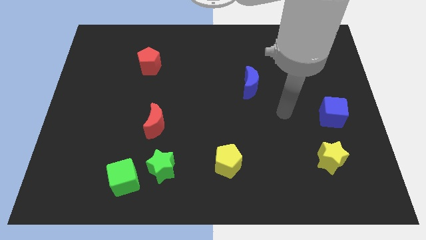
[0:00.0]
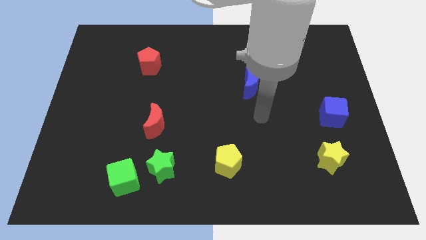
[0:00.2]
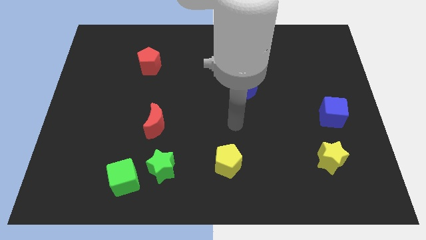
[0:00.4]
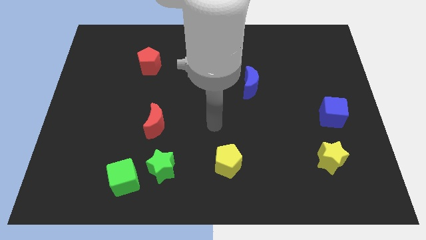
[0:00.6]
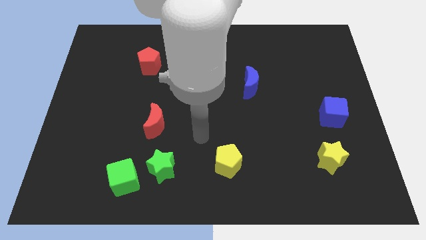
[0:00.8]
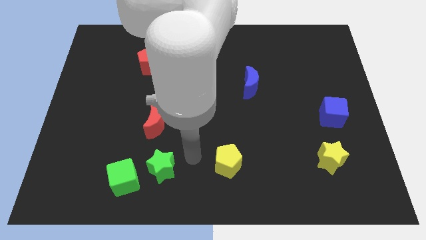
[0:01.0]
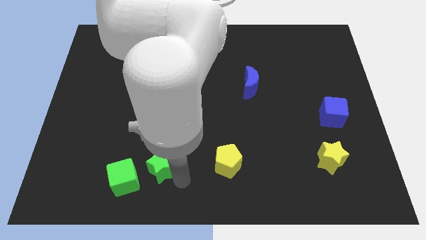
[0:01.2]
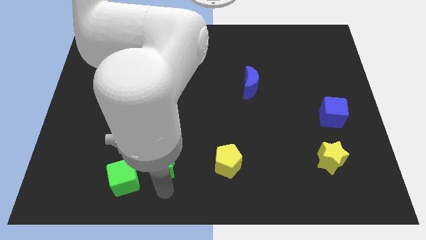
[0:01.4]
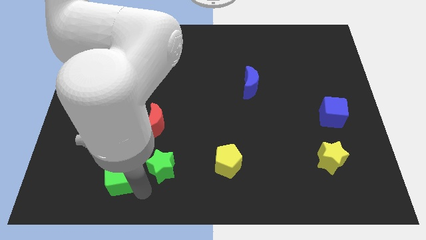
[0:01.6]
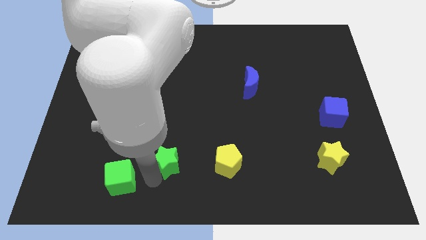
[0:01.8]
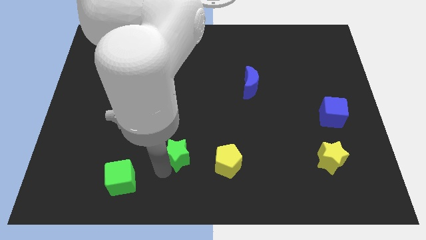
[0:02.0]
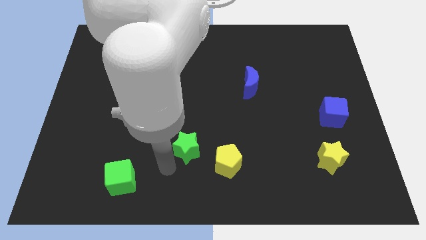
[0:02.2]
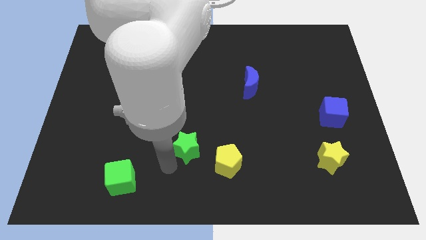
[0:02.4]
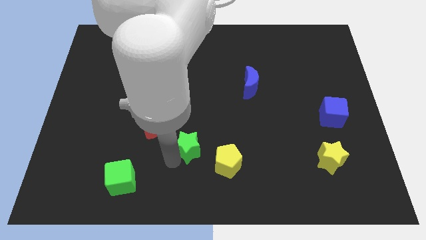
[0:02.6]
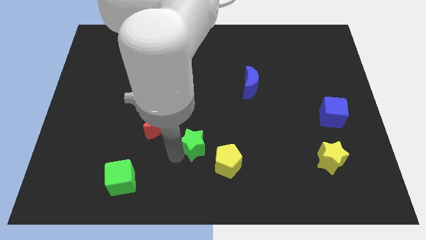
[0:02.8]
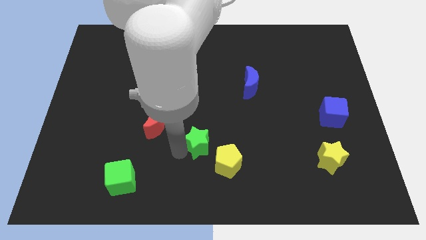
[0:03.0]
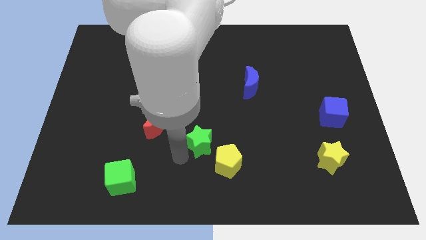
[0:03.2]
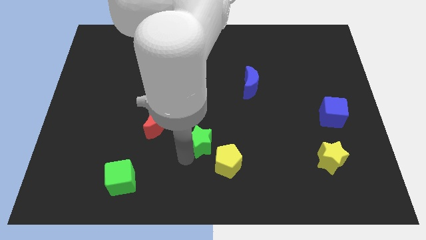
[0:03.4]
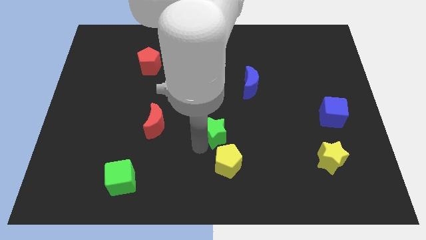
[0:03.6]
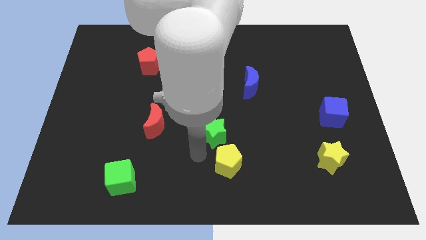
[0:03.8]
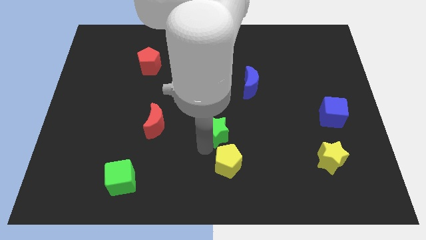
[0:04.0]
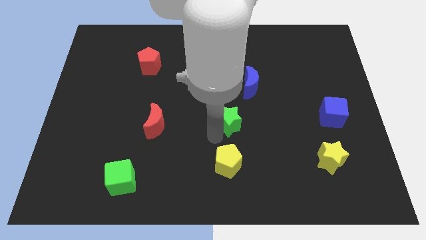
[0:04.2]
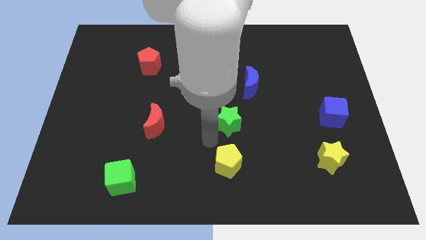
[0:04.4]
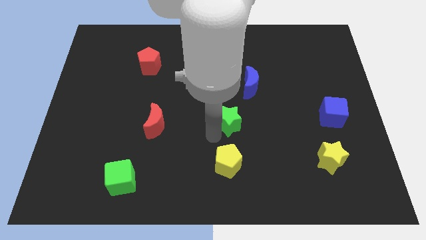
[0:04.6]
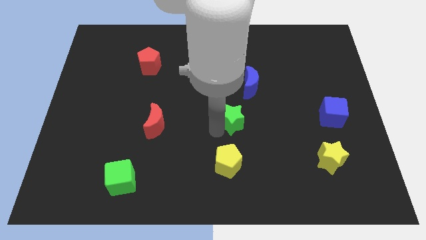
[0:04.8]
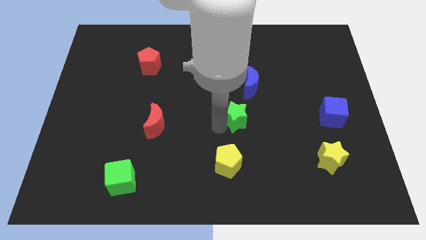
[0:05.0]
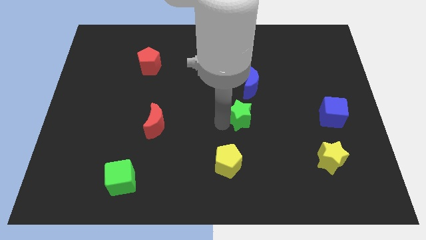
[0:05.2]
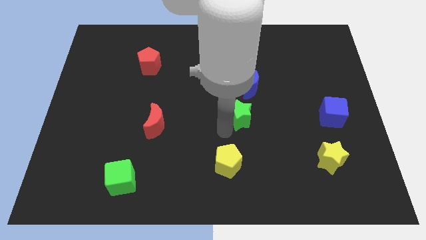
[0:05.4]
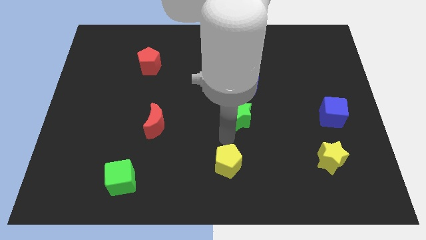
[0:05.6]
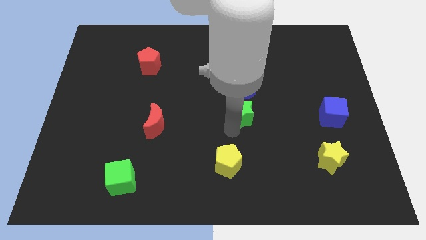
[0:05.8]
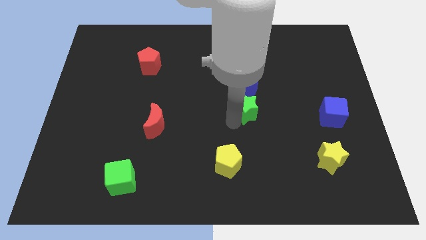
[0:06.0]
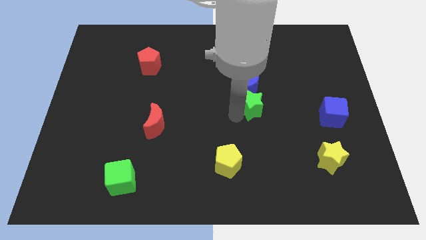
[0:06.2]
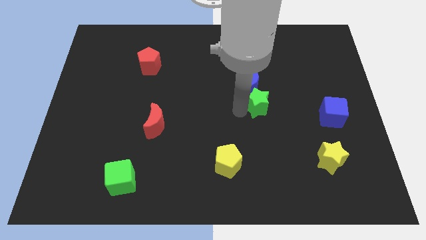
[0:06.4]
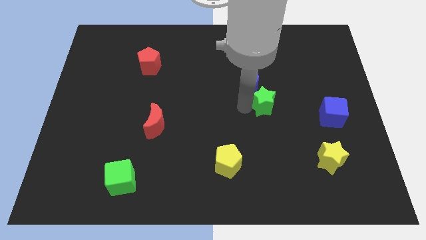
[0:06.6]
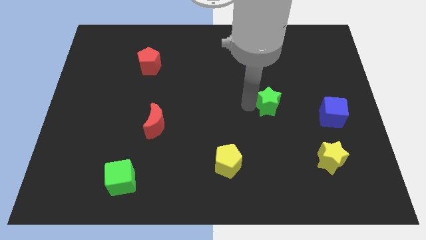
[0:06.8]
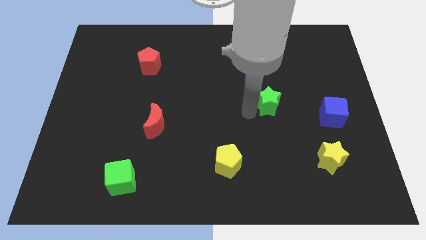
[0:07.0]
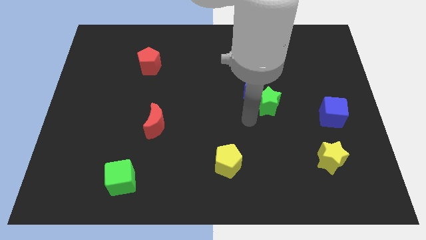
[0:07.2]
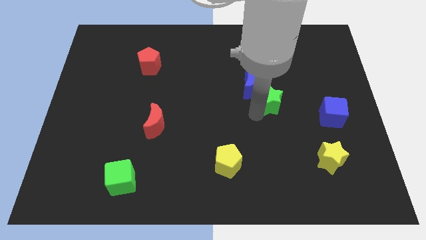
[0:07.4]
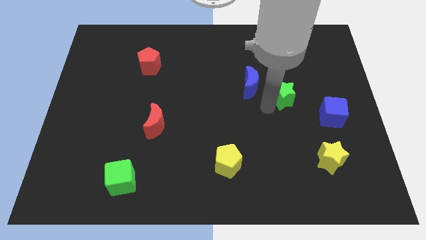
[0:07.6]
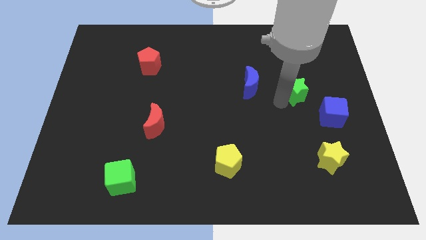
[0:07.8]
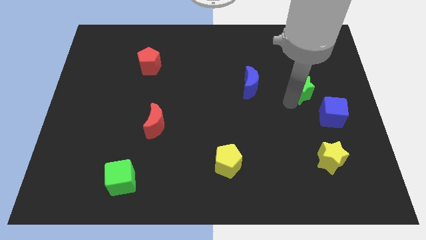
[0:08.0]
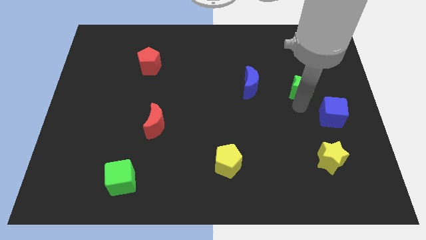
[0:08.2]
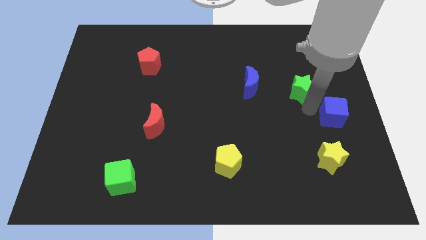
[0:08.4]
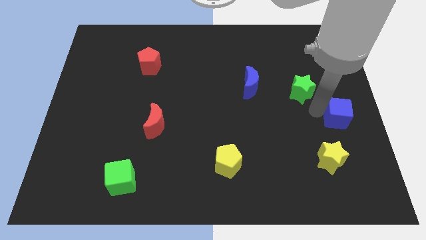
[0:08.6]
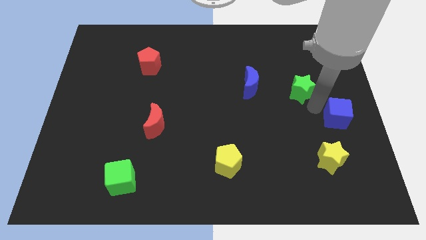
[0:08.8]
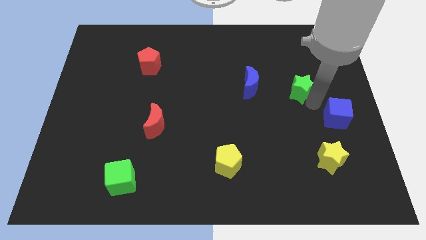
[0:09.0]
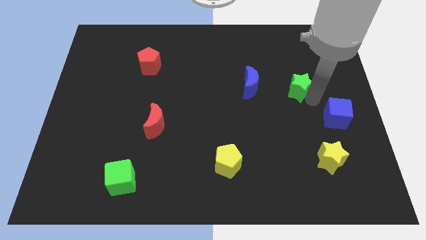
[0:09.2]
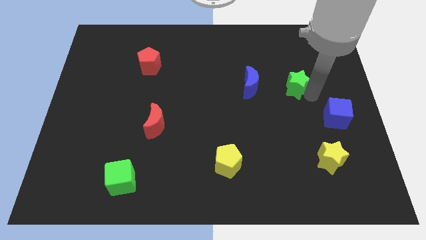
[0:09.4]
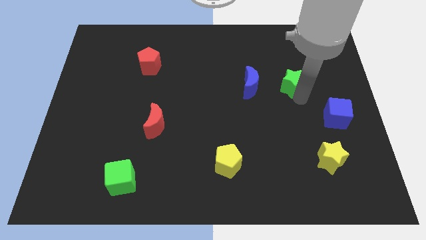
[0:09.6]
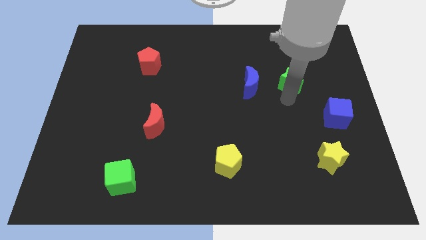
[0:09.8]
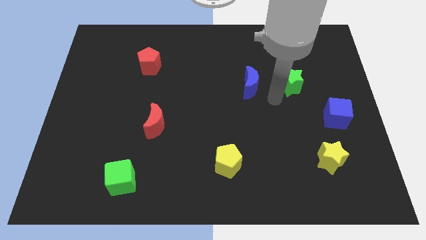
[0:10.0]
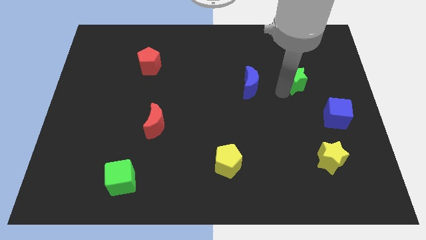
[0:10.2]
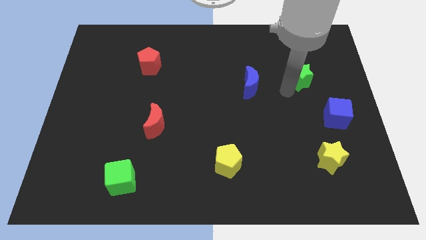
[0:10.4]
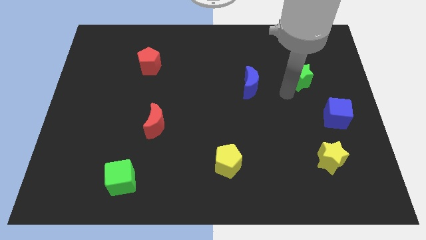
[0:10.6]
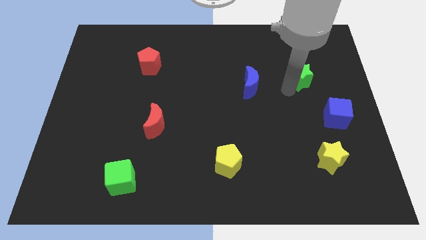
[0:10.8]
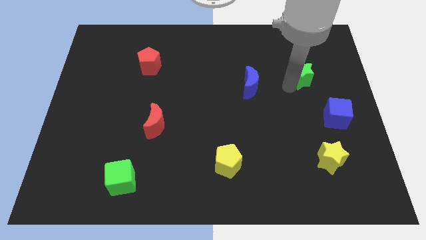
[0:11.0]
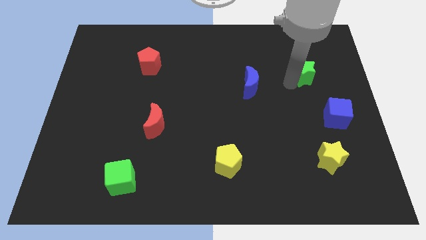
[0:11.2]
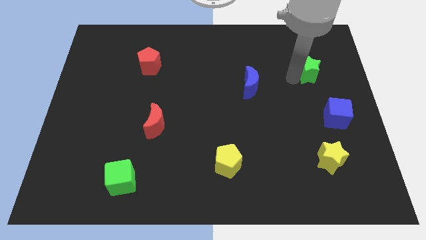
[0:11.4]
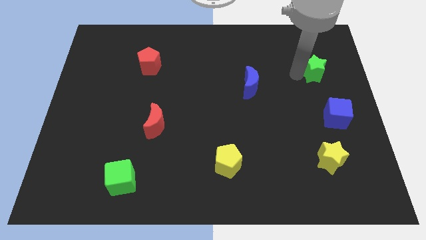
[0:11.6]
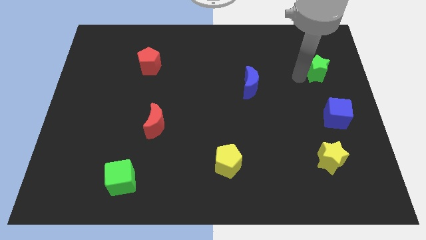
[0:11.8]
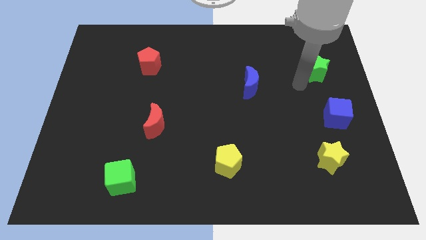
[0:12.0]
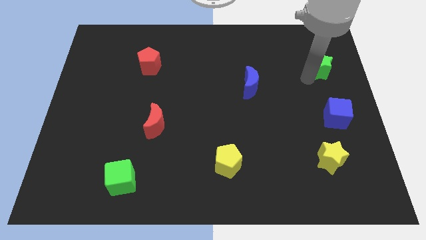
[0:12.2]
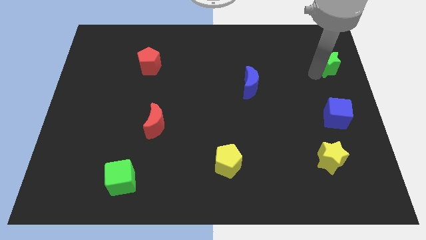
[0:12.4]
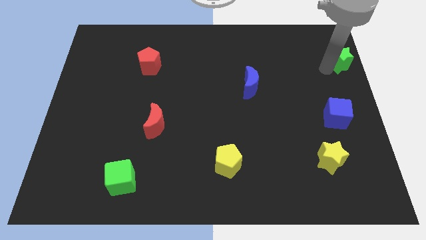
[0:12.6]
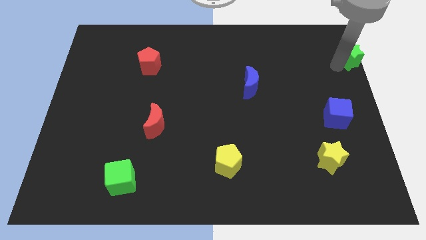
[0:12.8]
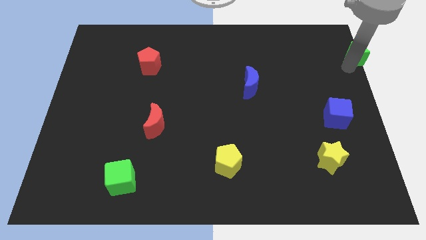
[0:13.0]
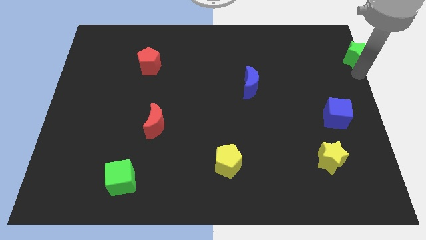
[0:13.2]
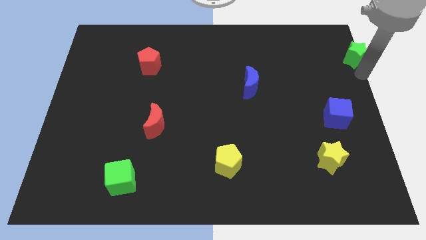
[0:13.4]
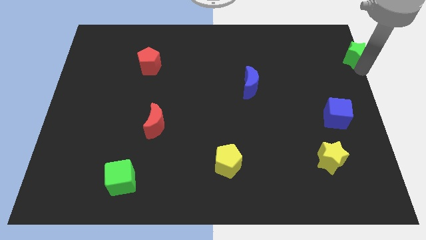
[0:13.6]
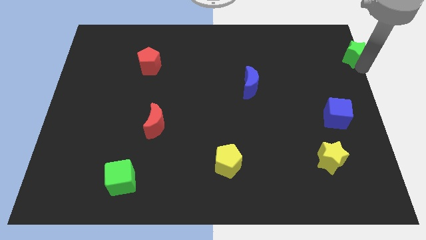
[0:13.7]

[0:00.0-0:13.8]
push the green star to the top right corner
